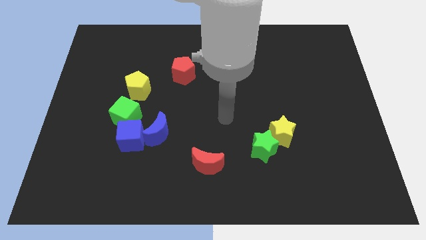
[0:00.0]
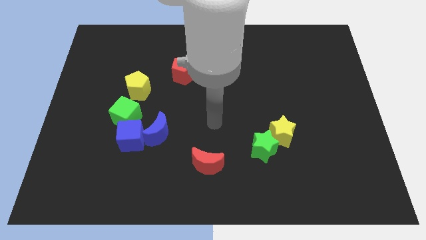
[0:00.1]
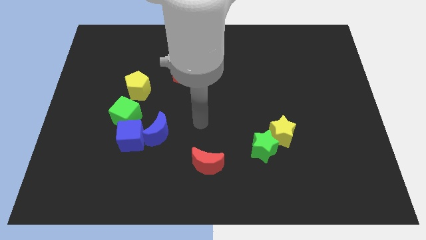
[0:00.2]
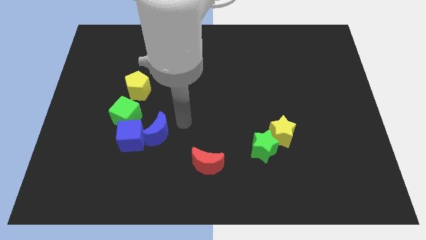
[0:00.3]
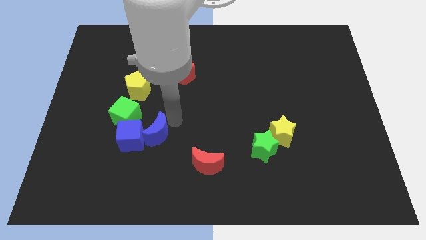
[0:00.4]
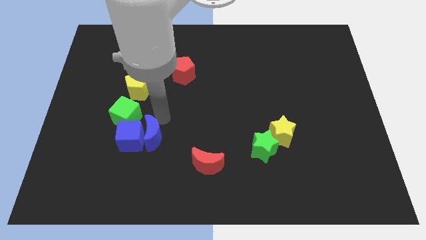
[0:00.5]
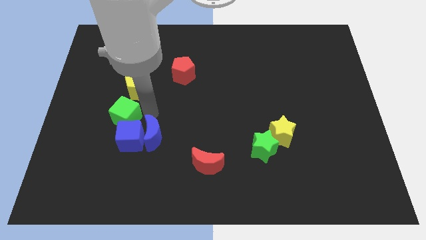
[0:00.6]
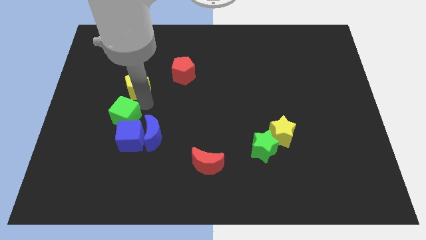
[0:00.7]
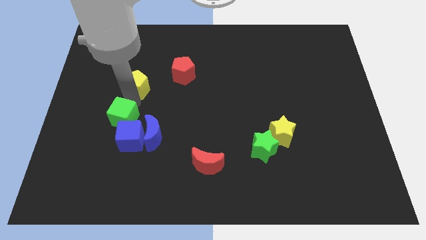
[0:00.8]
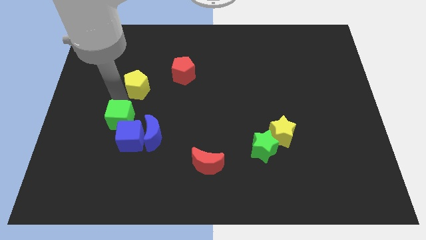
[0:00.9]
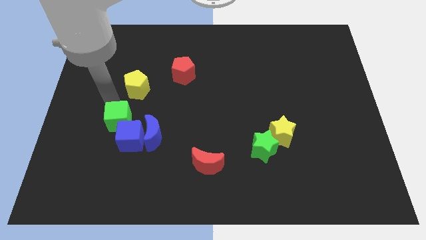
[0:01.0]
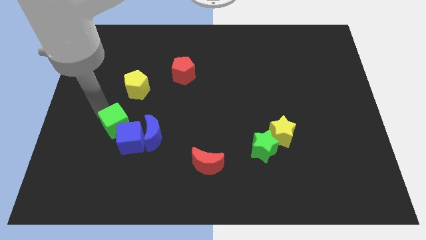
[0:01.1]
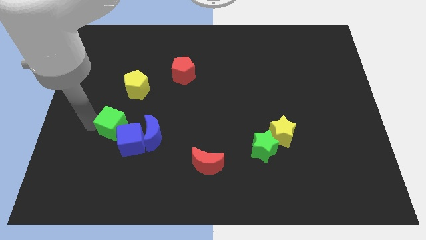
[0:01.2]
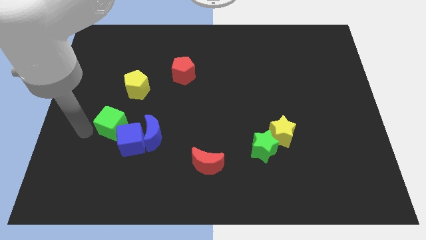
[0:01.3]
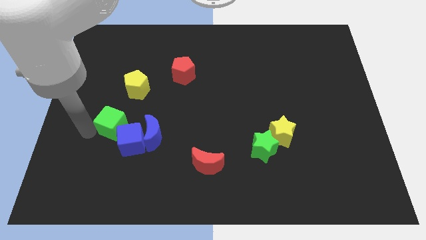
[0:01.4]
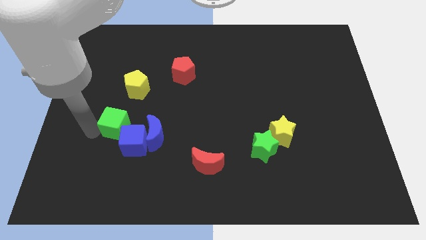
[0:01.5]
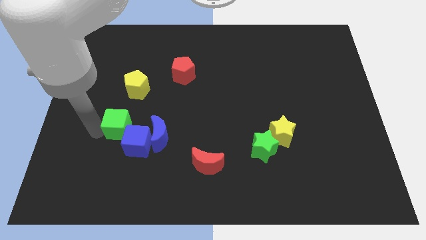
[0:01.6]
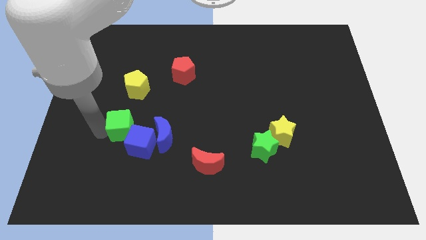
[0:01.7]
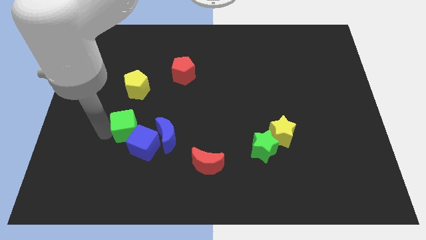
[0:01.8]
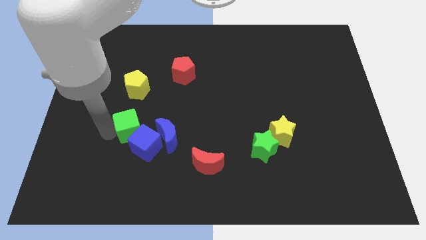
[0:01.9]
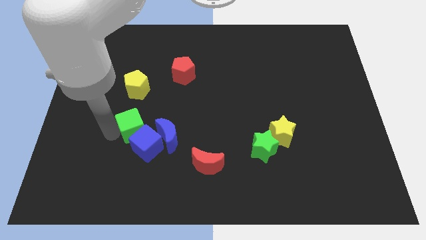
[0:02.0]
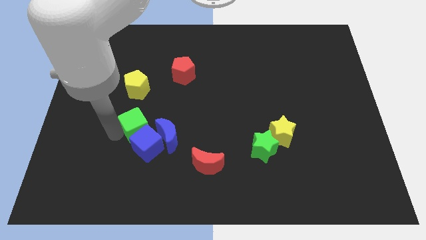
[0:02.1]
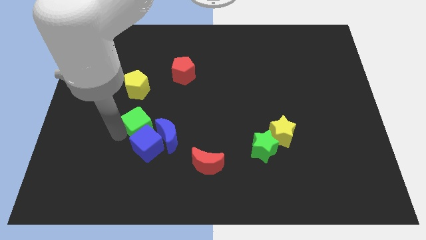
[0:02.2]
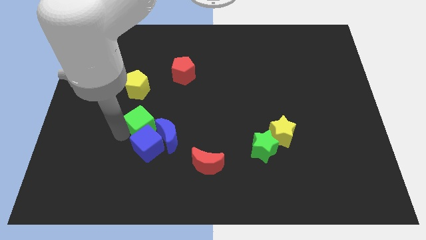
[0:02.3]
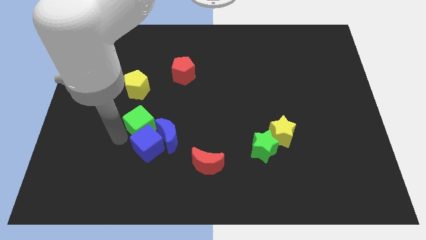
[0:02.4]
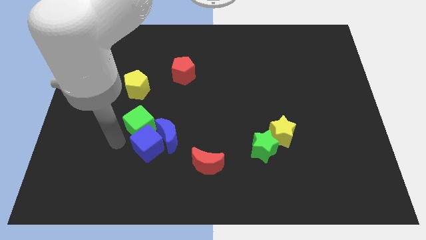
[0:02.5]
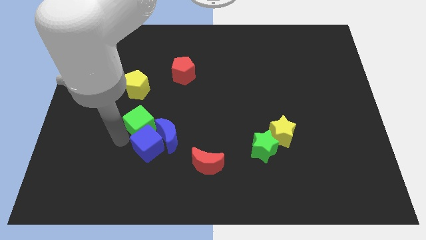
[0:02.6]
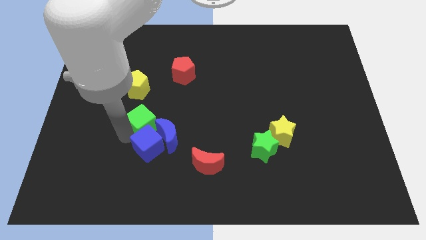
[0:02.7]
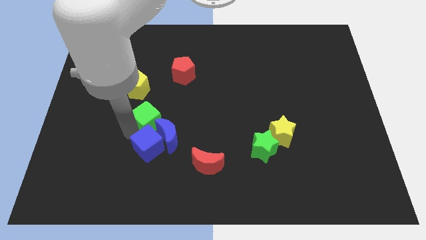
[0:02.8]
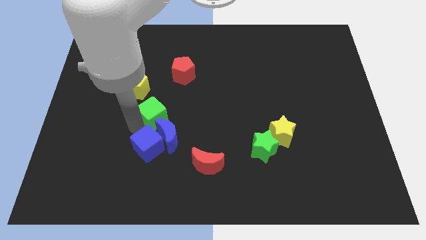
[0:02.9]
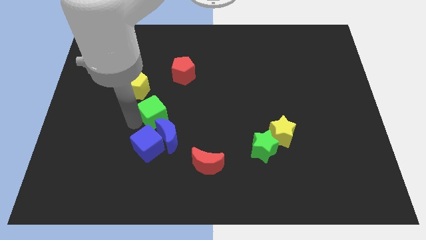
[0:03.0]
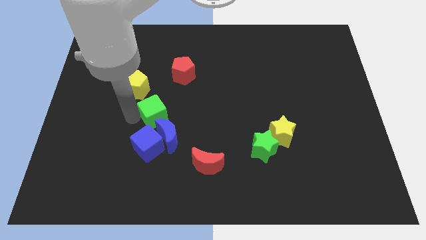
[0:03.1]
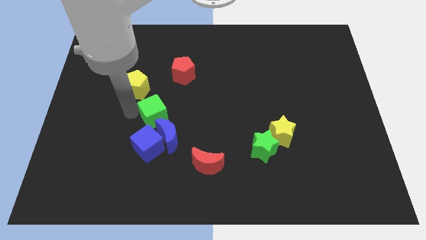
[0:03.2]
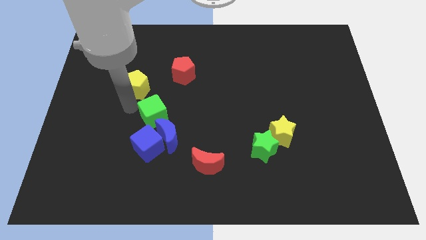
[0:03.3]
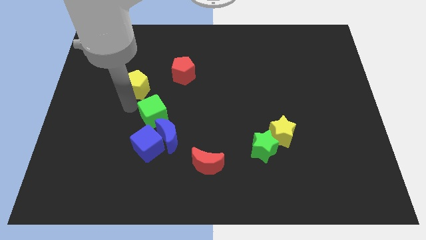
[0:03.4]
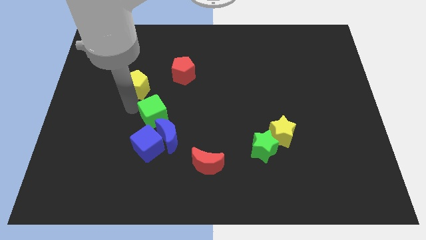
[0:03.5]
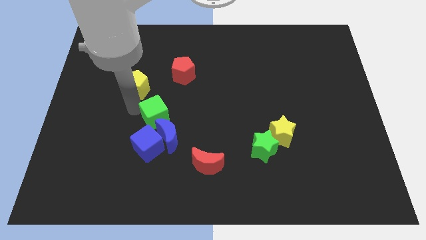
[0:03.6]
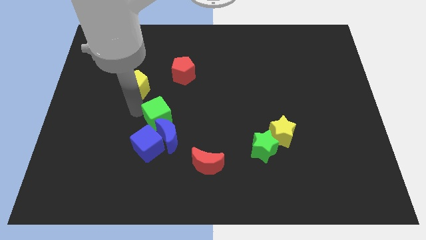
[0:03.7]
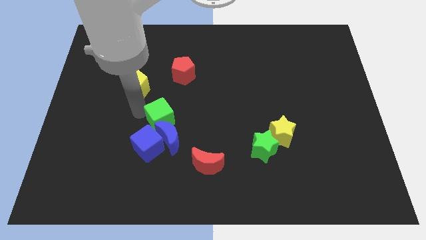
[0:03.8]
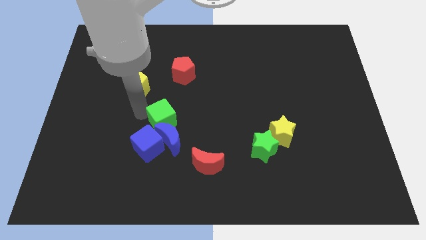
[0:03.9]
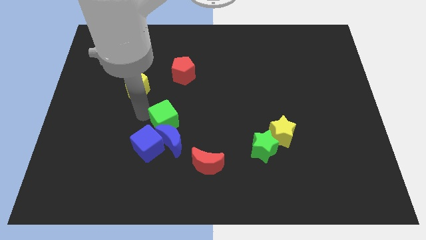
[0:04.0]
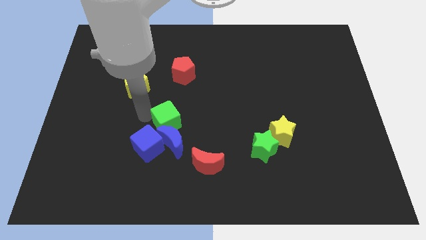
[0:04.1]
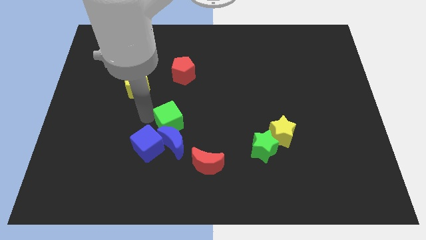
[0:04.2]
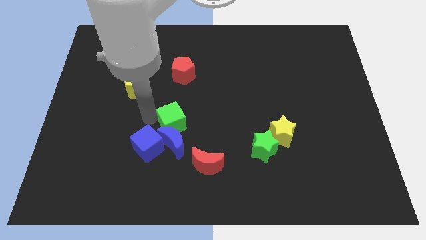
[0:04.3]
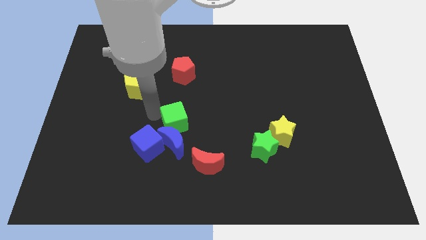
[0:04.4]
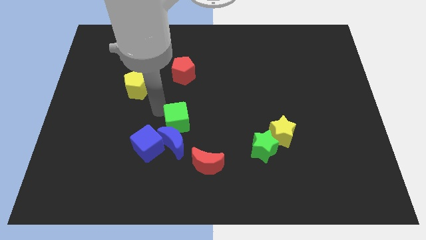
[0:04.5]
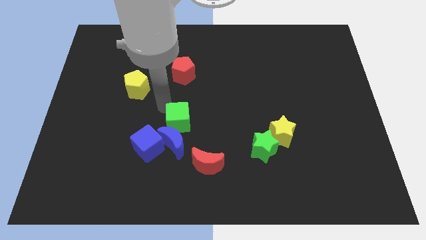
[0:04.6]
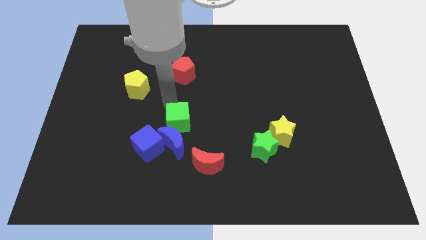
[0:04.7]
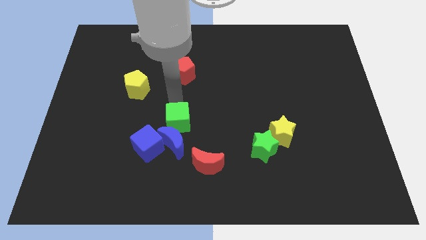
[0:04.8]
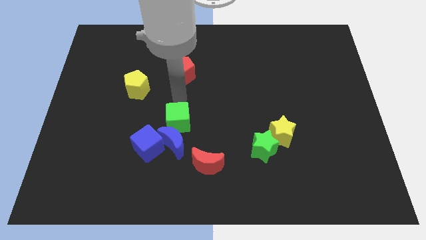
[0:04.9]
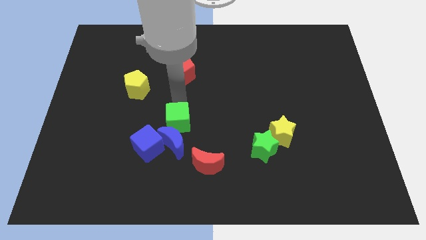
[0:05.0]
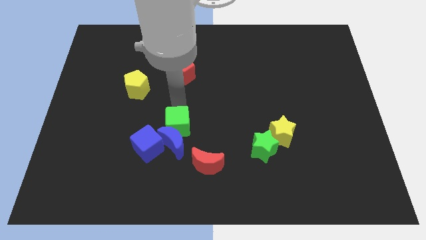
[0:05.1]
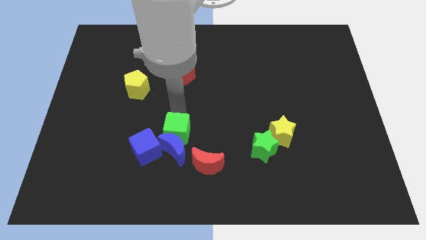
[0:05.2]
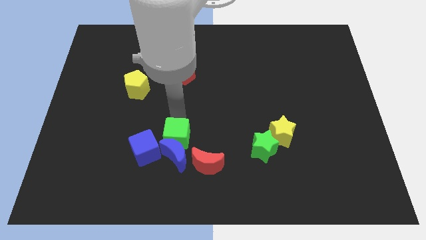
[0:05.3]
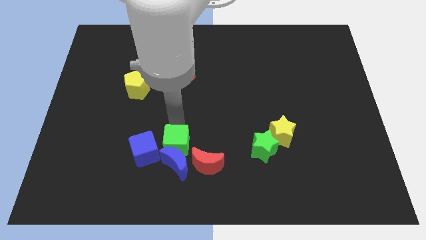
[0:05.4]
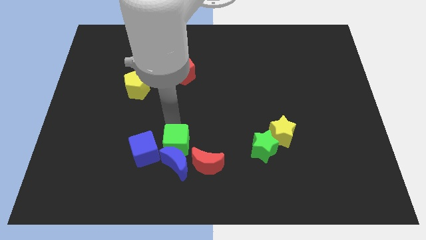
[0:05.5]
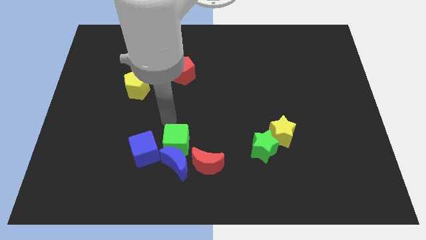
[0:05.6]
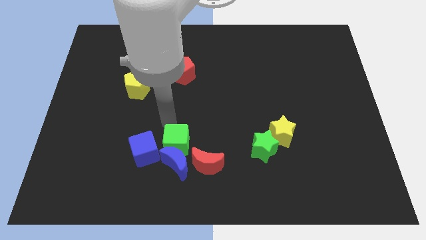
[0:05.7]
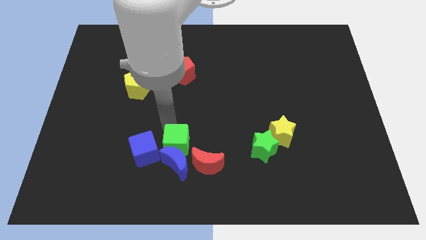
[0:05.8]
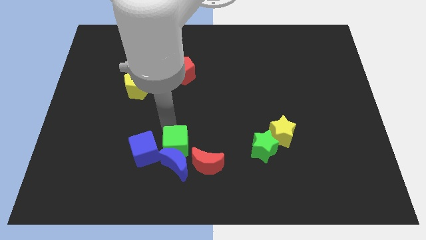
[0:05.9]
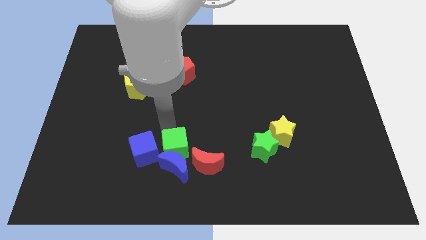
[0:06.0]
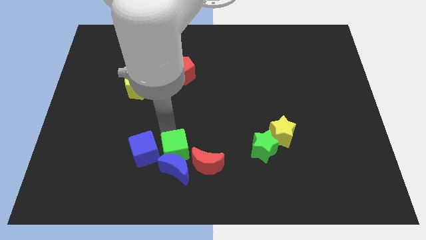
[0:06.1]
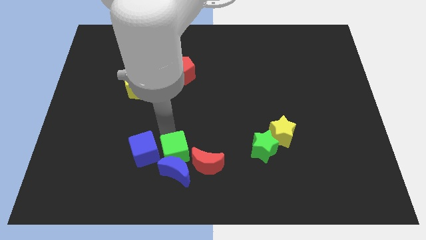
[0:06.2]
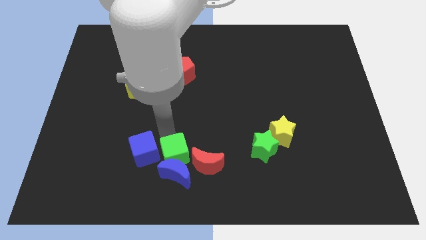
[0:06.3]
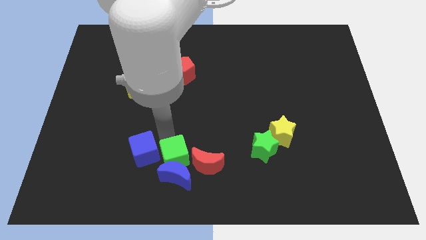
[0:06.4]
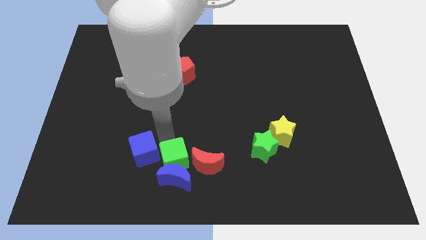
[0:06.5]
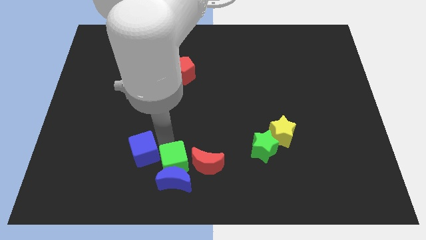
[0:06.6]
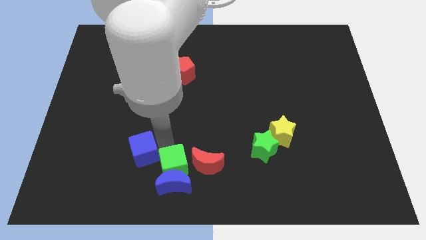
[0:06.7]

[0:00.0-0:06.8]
put the green cube to the bottom
